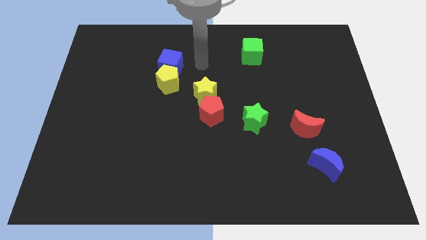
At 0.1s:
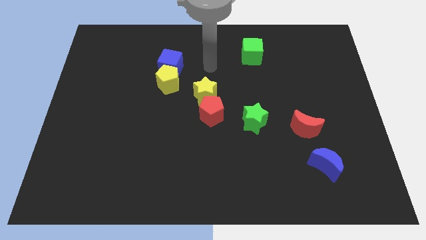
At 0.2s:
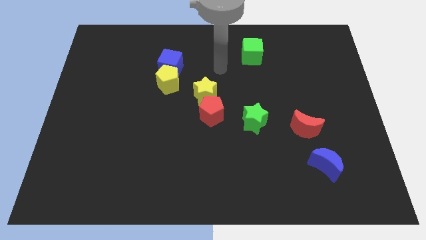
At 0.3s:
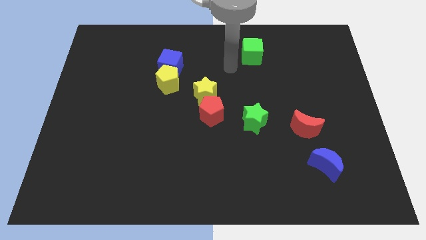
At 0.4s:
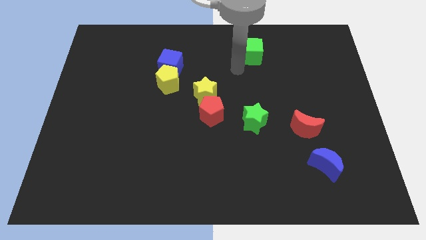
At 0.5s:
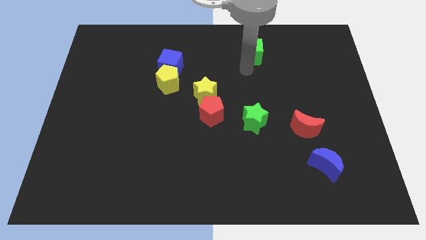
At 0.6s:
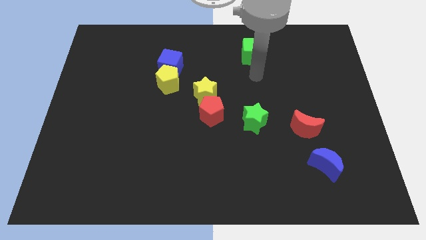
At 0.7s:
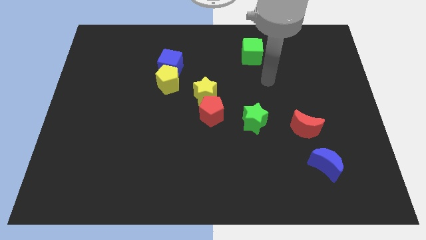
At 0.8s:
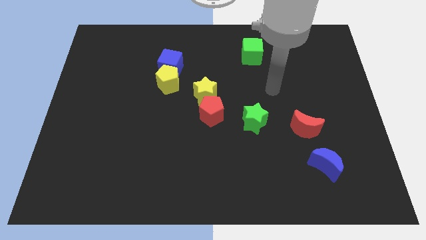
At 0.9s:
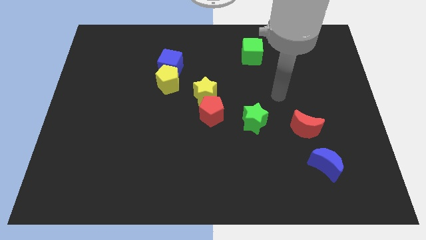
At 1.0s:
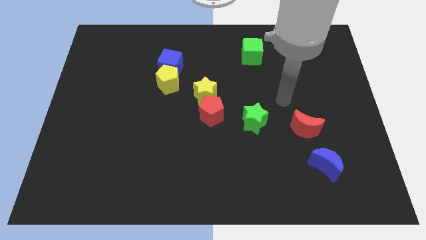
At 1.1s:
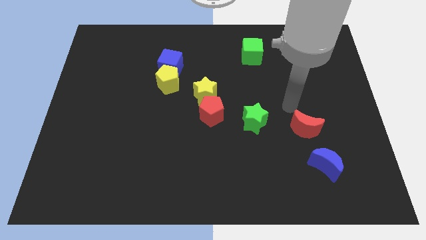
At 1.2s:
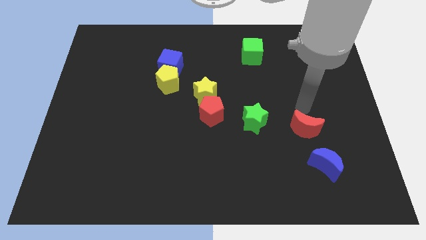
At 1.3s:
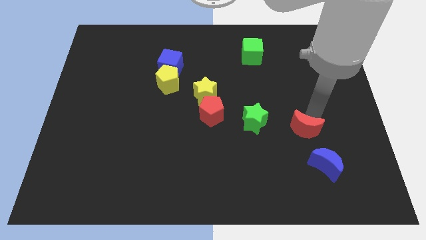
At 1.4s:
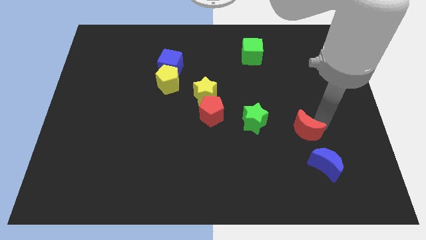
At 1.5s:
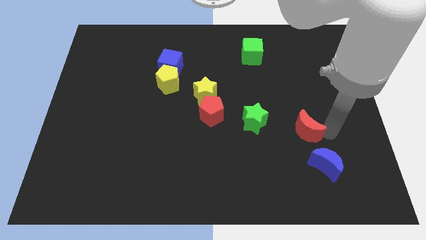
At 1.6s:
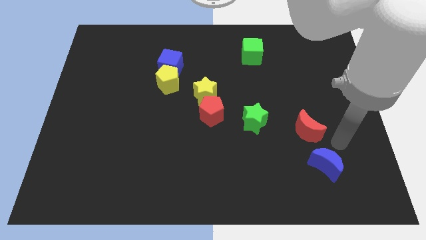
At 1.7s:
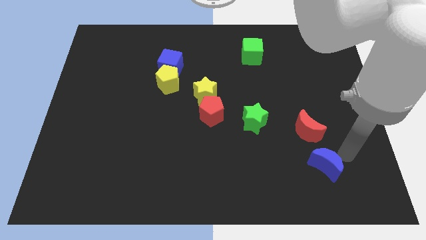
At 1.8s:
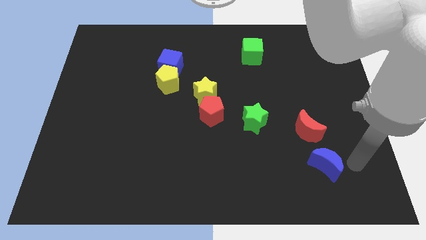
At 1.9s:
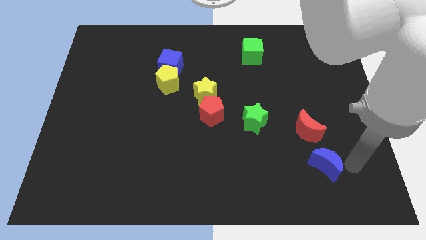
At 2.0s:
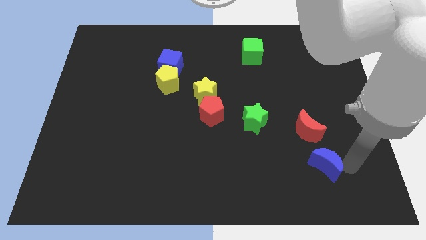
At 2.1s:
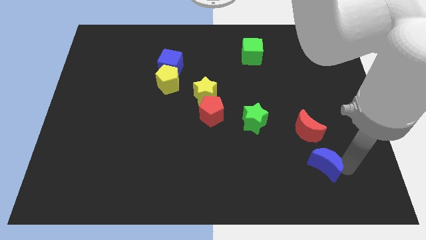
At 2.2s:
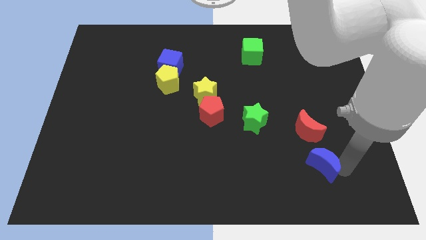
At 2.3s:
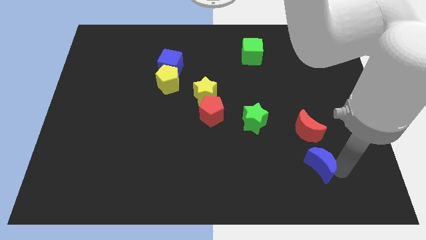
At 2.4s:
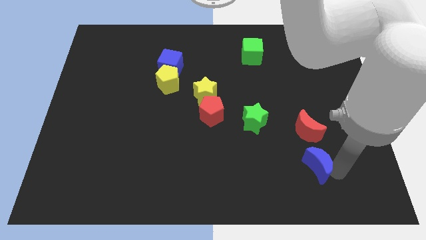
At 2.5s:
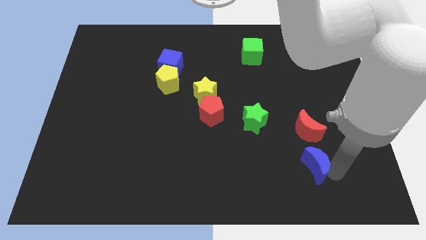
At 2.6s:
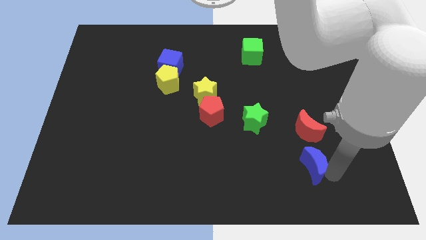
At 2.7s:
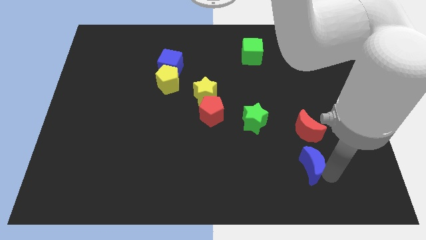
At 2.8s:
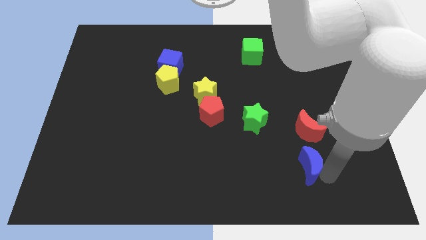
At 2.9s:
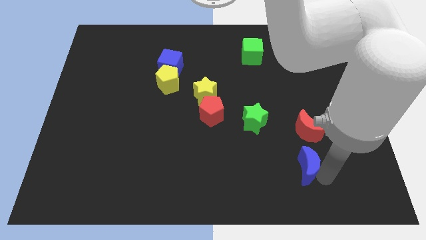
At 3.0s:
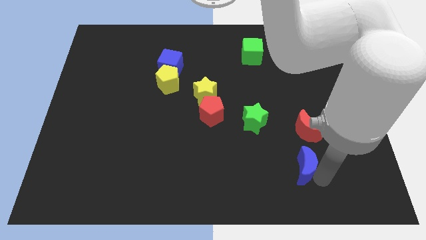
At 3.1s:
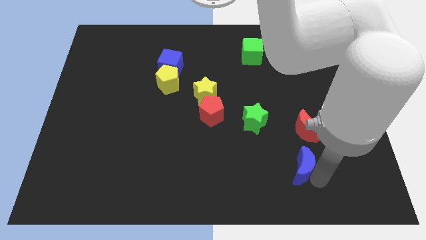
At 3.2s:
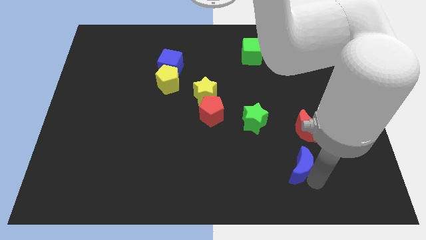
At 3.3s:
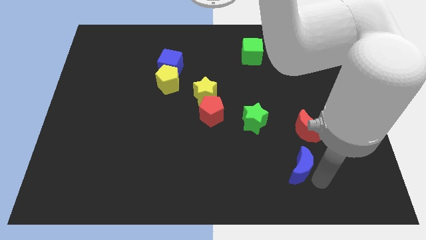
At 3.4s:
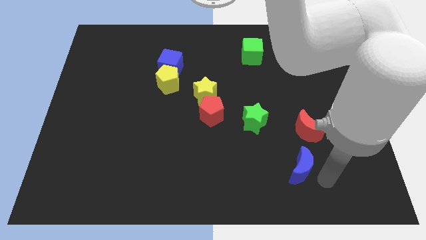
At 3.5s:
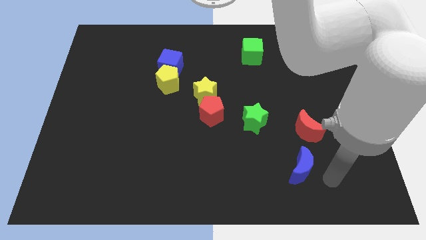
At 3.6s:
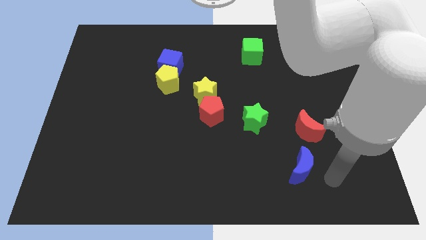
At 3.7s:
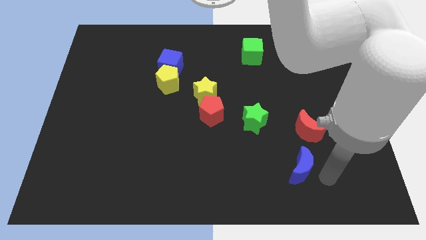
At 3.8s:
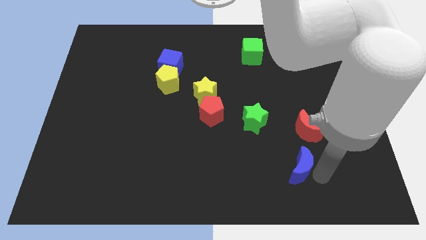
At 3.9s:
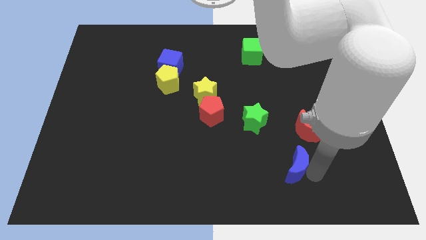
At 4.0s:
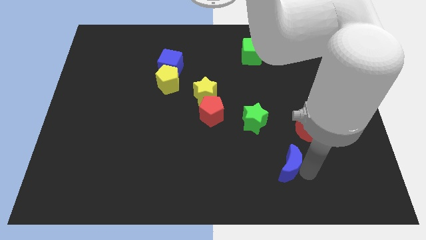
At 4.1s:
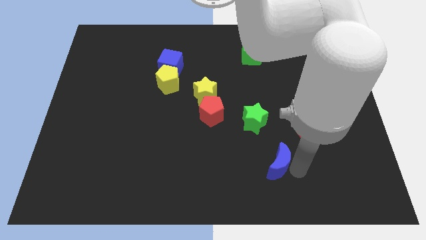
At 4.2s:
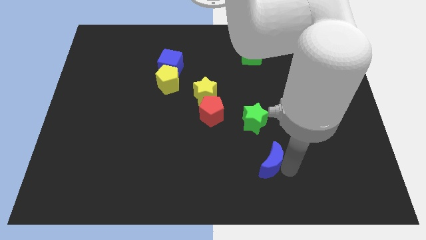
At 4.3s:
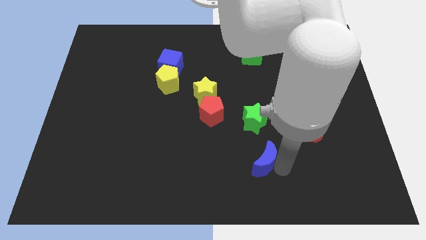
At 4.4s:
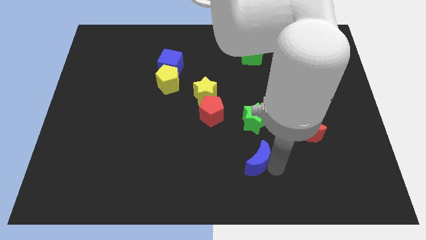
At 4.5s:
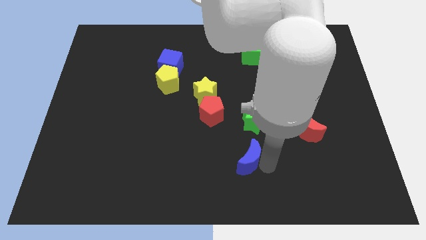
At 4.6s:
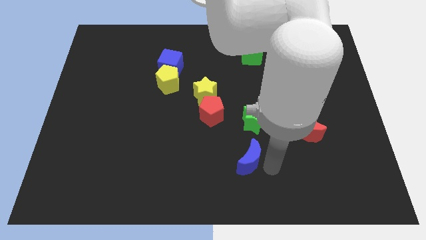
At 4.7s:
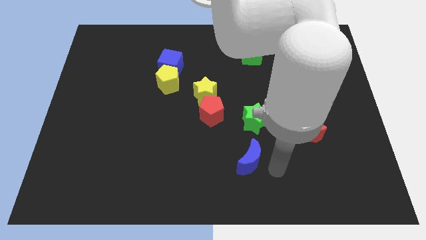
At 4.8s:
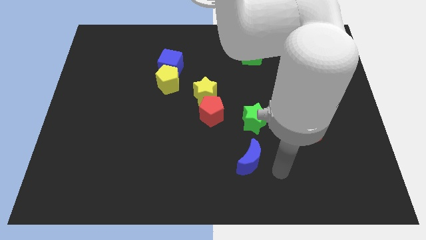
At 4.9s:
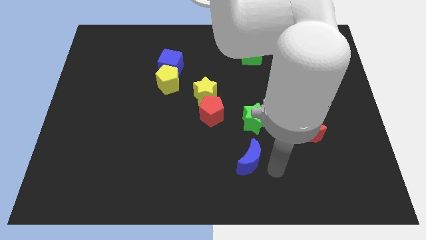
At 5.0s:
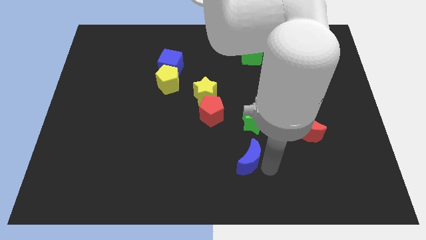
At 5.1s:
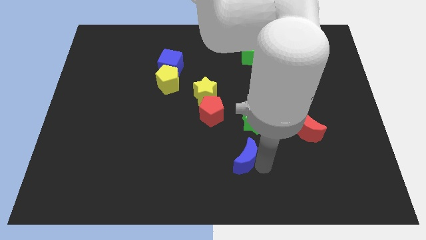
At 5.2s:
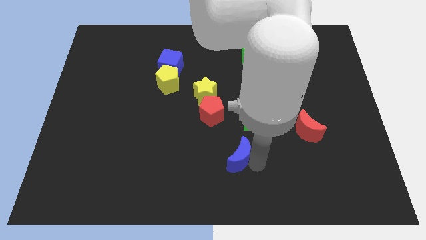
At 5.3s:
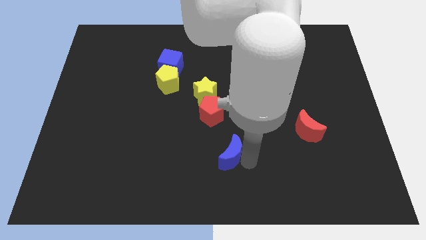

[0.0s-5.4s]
put the blue moon to the bottom side of the red pentagon

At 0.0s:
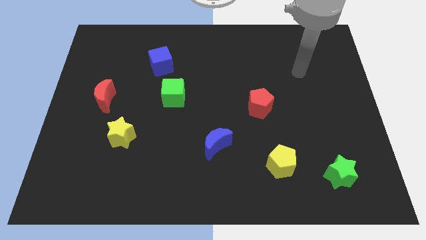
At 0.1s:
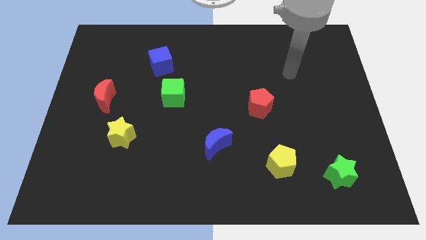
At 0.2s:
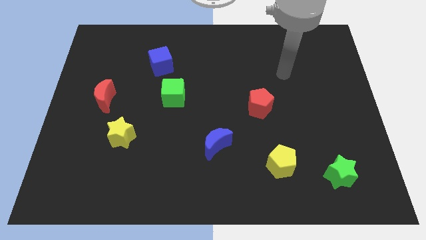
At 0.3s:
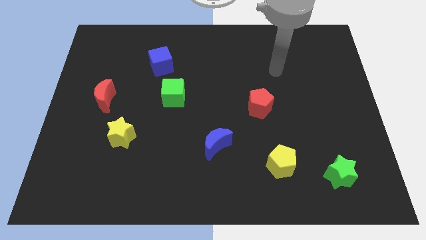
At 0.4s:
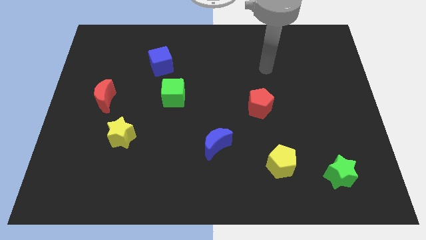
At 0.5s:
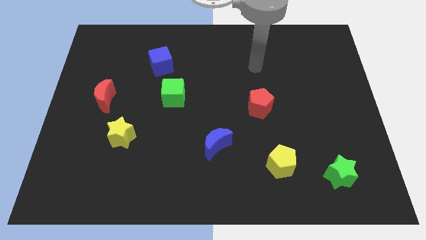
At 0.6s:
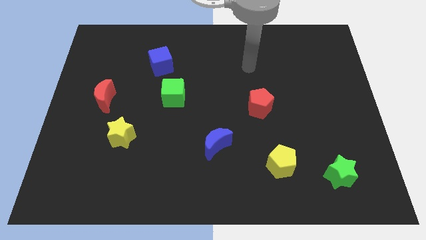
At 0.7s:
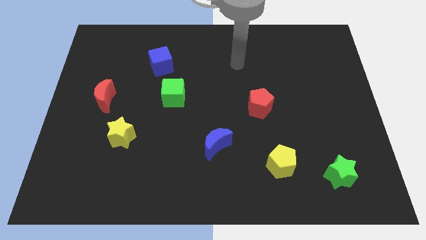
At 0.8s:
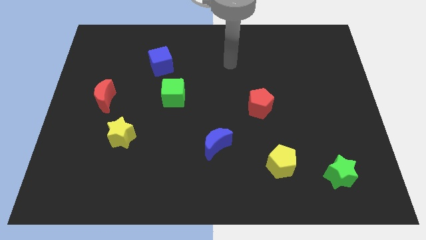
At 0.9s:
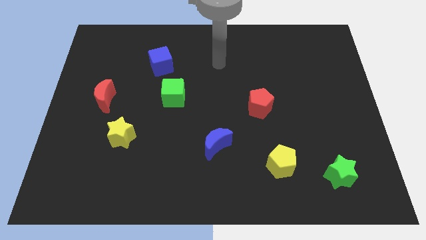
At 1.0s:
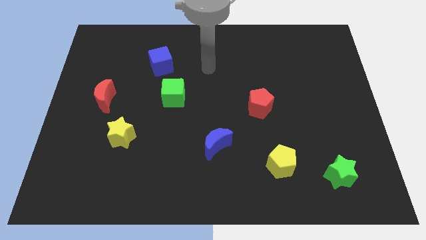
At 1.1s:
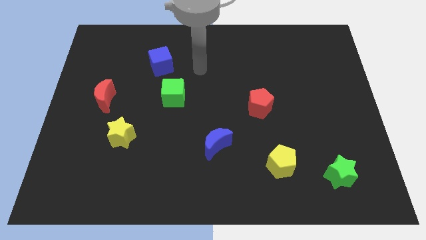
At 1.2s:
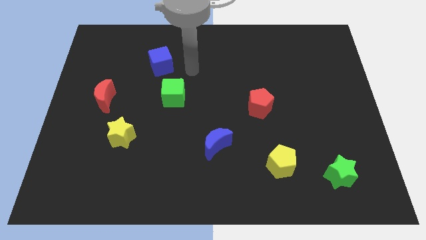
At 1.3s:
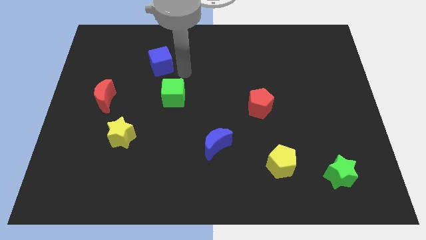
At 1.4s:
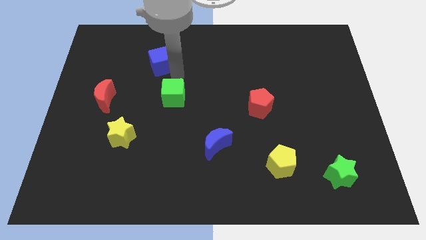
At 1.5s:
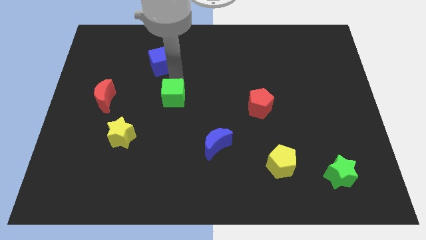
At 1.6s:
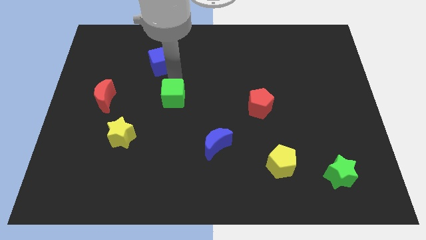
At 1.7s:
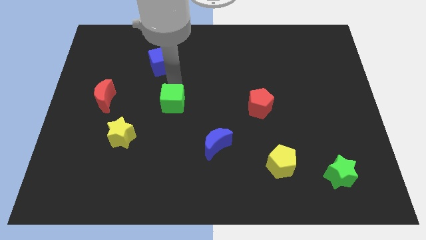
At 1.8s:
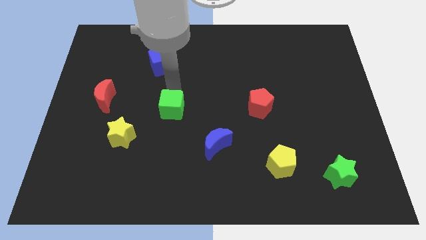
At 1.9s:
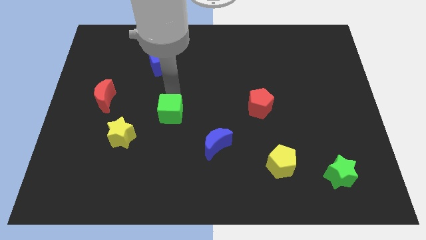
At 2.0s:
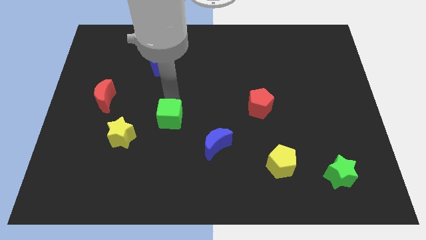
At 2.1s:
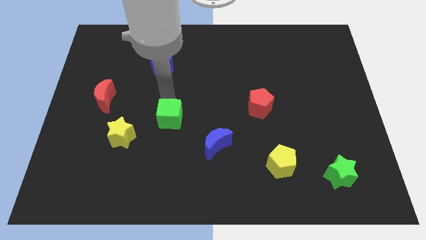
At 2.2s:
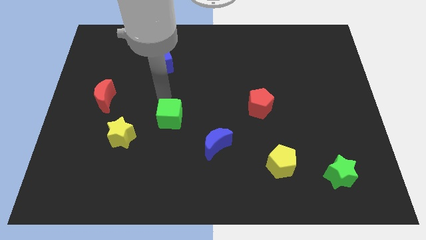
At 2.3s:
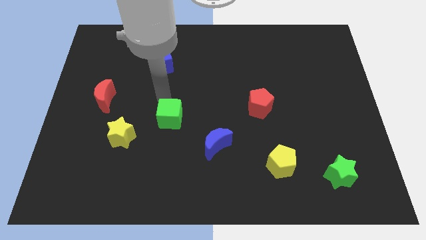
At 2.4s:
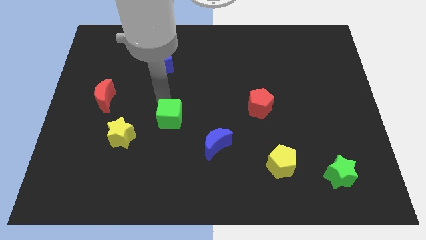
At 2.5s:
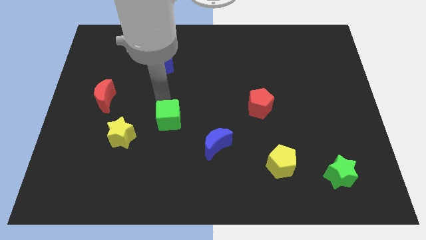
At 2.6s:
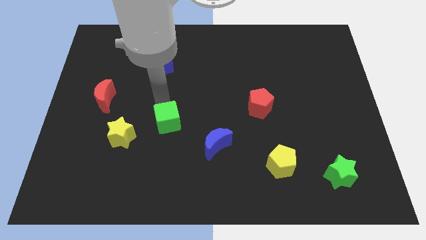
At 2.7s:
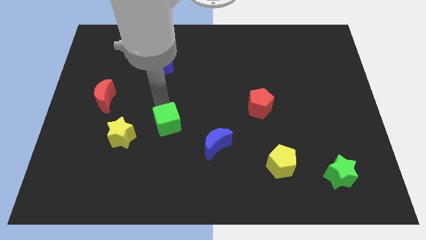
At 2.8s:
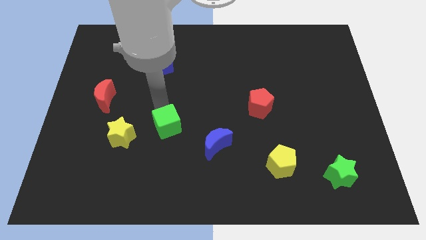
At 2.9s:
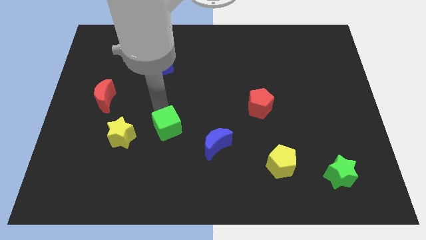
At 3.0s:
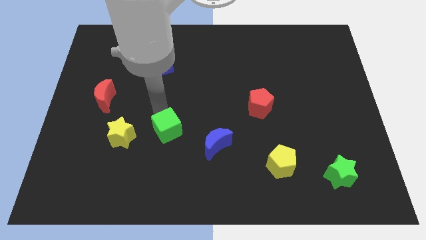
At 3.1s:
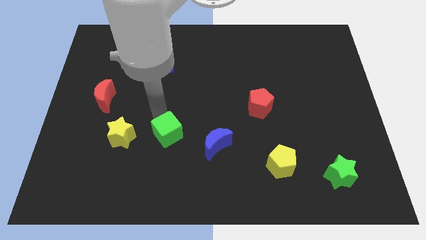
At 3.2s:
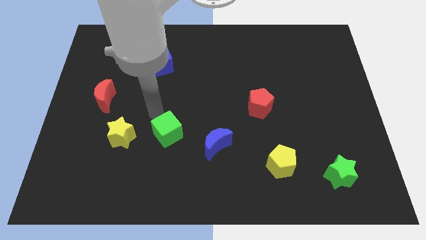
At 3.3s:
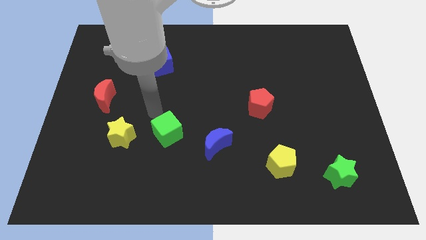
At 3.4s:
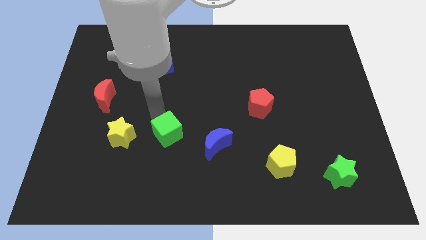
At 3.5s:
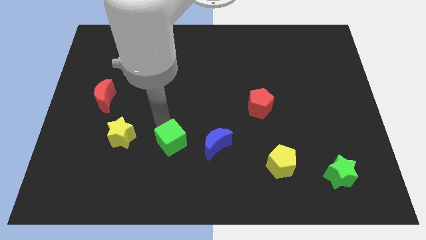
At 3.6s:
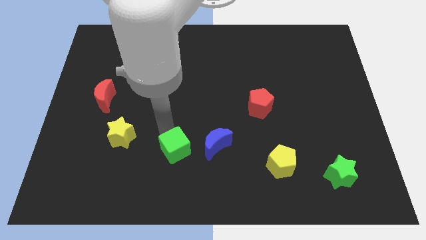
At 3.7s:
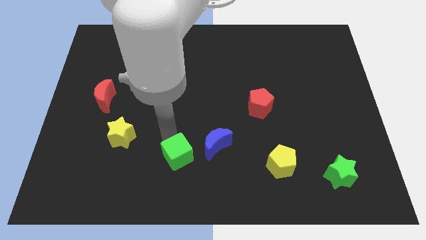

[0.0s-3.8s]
slide the green cube to the bottom left of the blue moon
